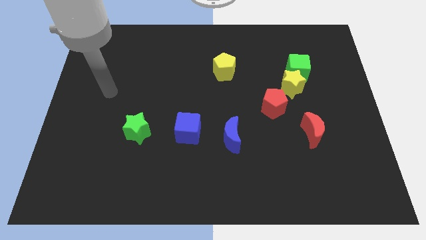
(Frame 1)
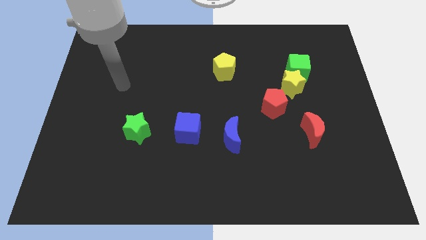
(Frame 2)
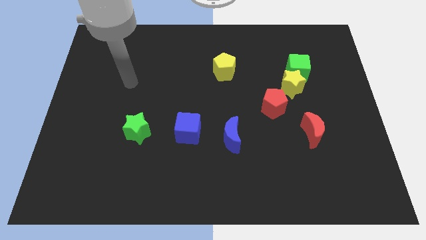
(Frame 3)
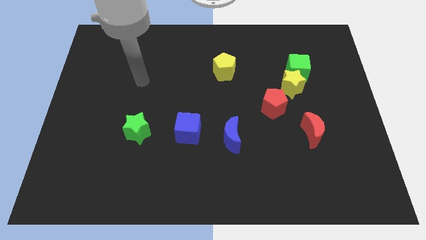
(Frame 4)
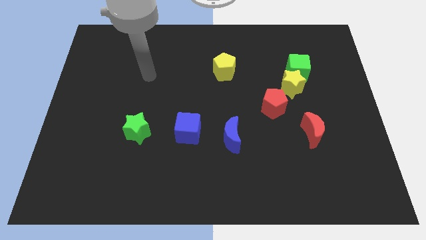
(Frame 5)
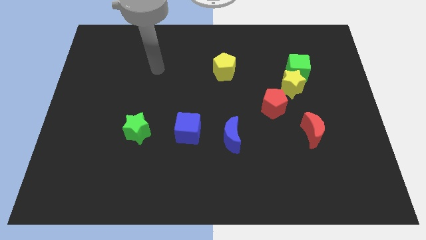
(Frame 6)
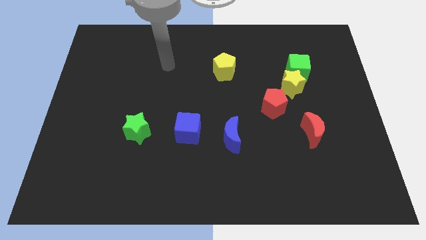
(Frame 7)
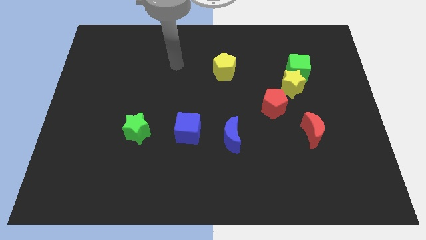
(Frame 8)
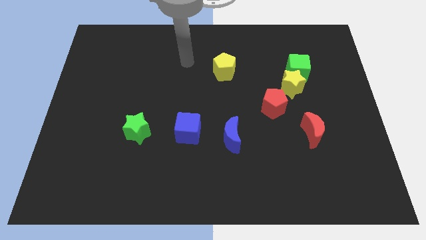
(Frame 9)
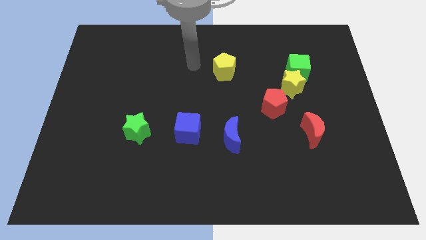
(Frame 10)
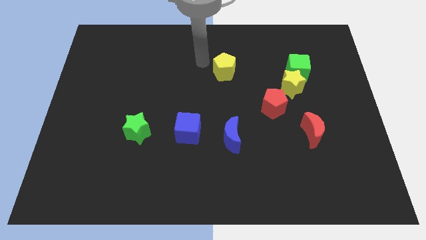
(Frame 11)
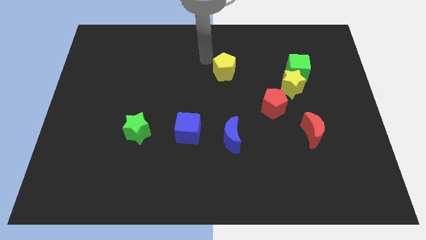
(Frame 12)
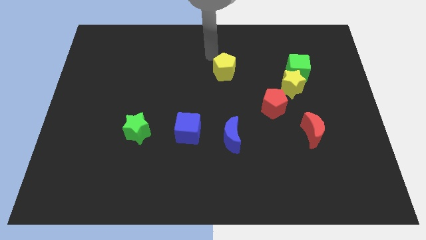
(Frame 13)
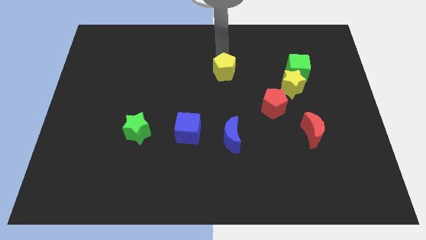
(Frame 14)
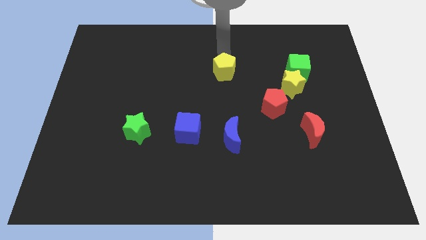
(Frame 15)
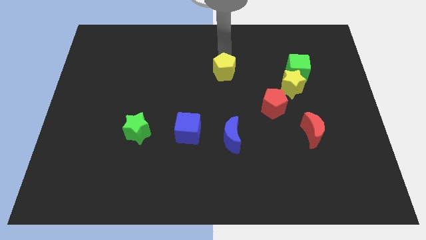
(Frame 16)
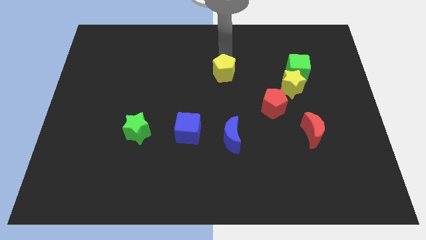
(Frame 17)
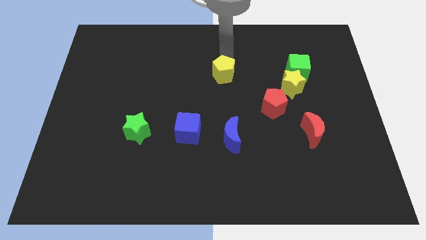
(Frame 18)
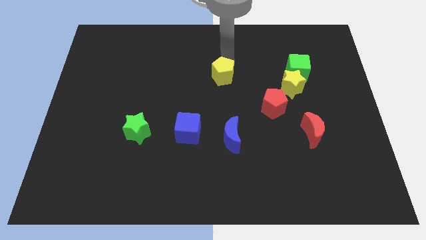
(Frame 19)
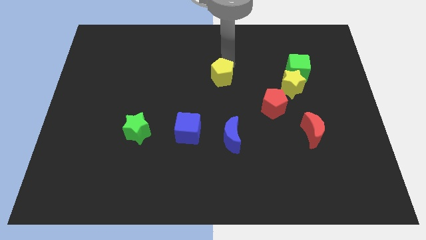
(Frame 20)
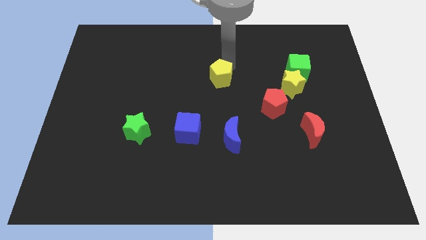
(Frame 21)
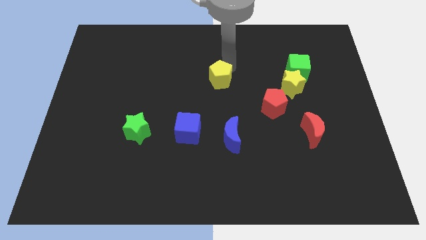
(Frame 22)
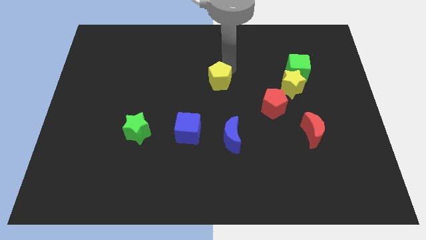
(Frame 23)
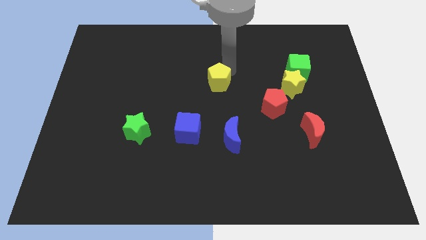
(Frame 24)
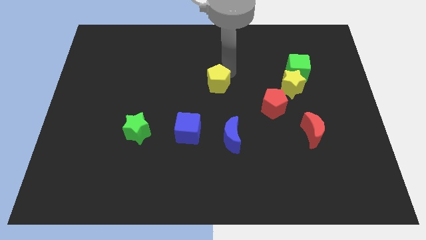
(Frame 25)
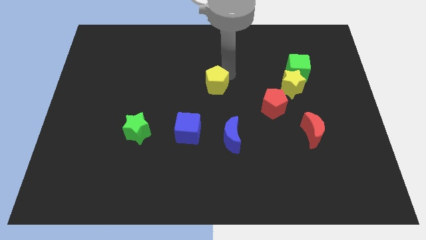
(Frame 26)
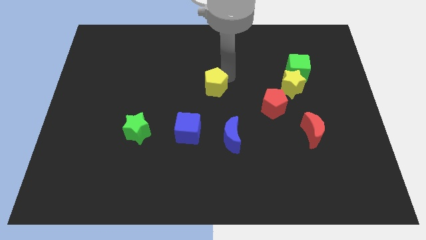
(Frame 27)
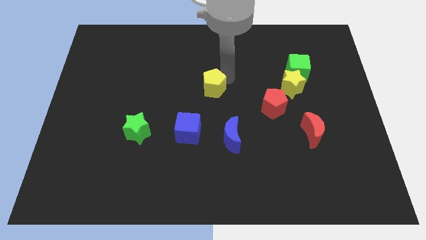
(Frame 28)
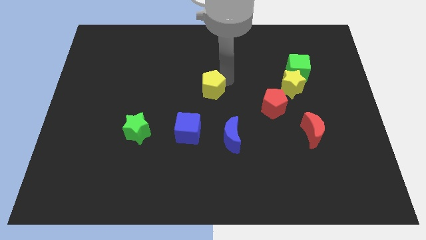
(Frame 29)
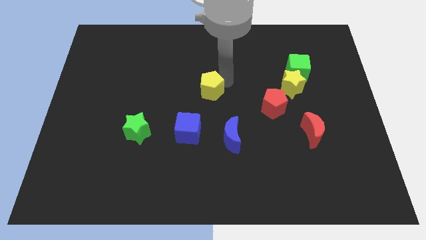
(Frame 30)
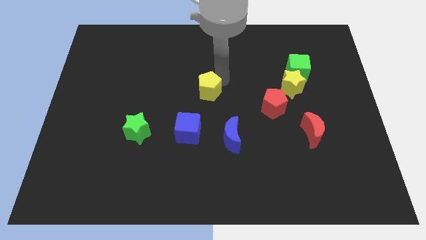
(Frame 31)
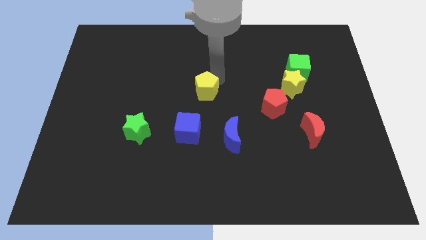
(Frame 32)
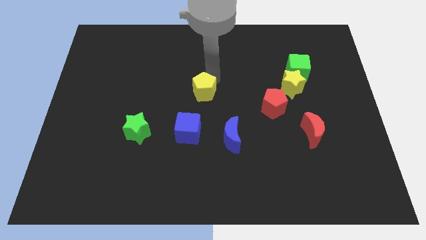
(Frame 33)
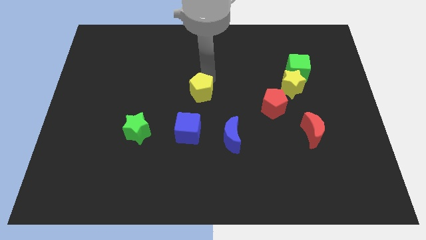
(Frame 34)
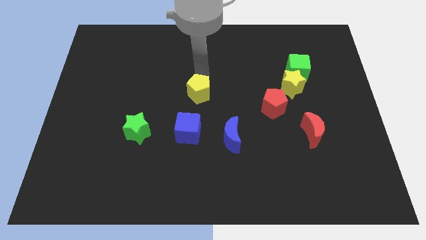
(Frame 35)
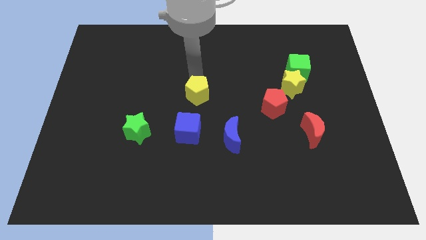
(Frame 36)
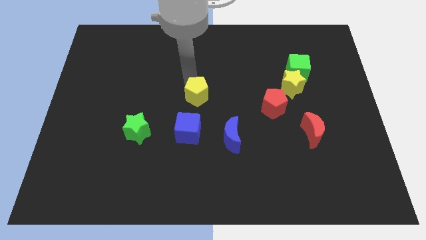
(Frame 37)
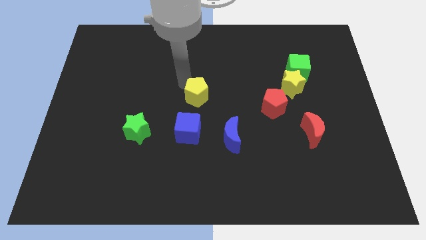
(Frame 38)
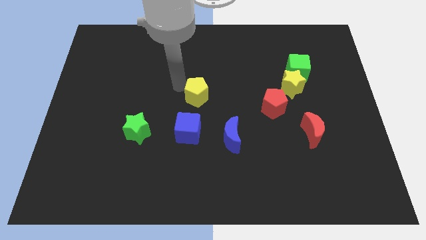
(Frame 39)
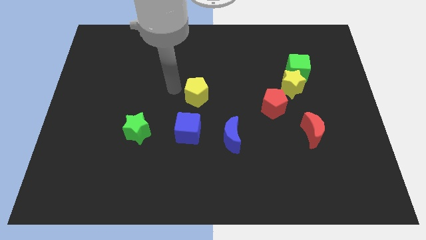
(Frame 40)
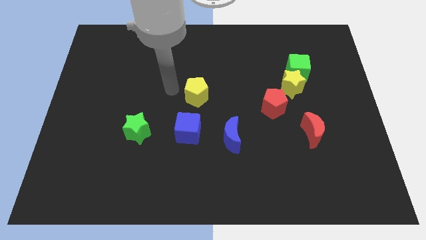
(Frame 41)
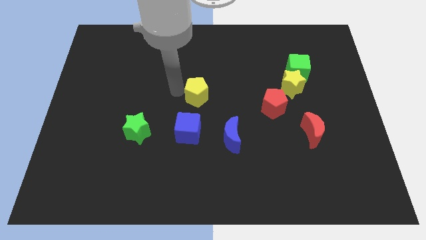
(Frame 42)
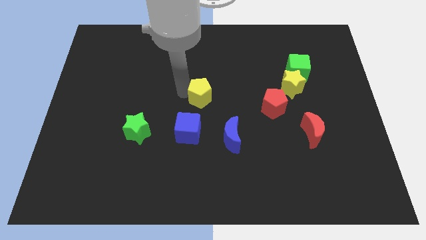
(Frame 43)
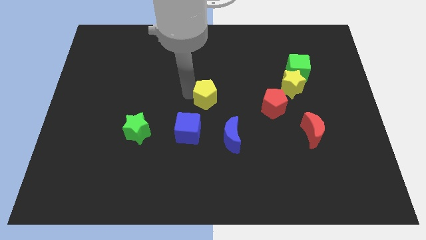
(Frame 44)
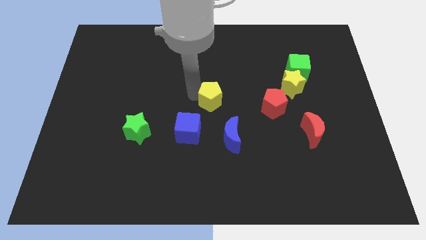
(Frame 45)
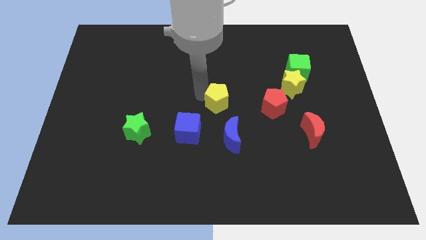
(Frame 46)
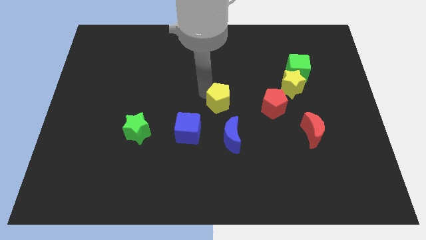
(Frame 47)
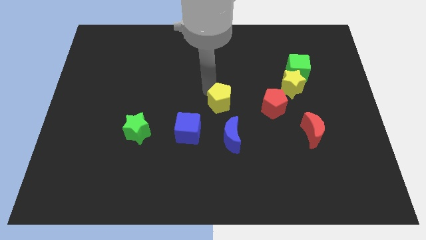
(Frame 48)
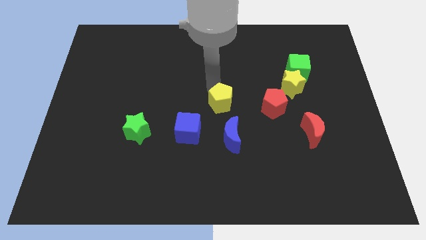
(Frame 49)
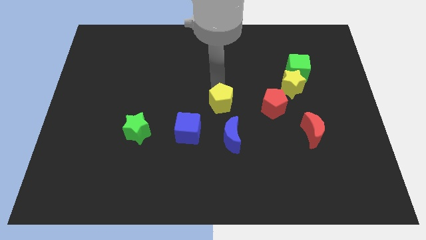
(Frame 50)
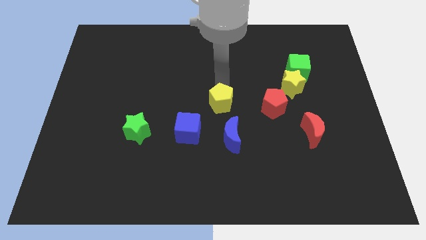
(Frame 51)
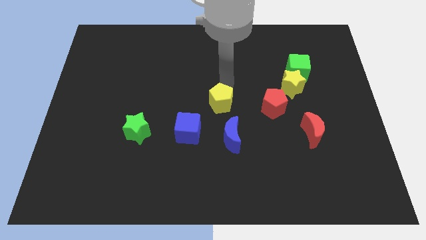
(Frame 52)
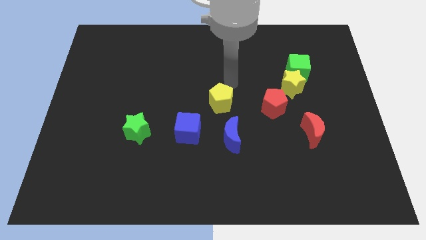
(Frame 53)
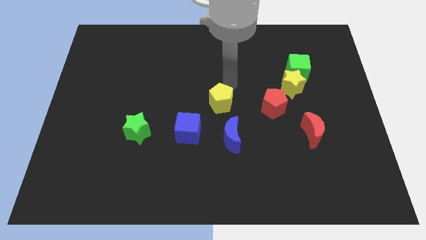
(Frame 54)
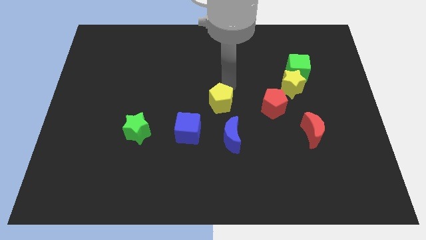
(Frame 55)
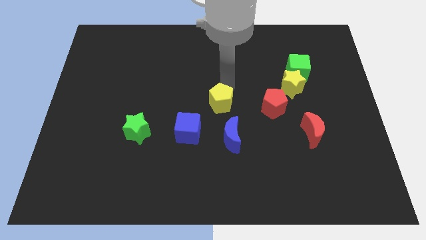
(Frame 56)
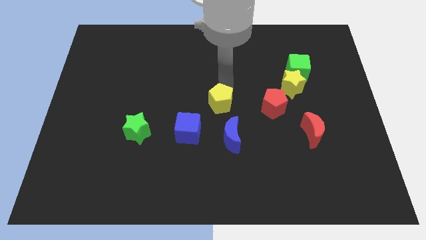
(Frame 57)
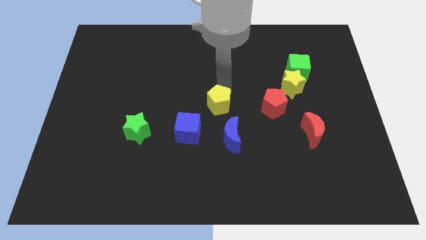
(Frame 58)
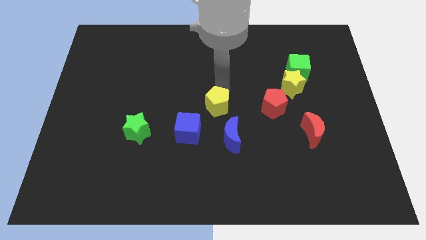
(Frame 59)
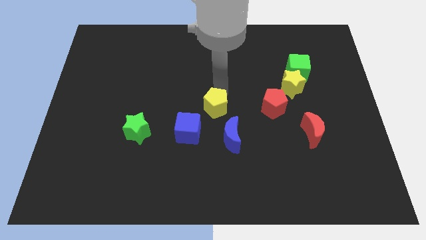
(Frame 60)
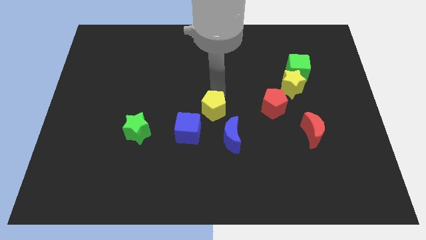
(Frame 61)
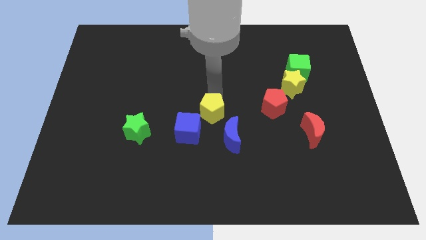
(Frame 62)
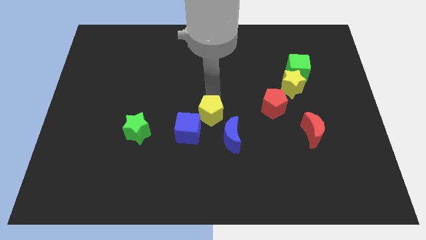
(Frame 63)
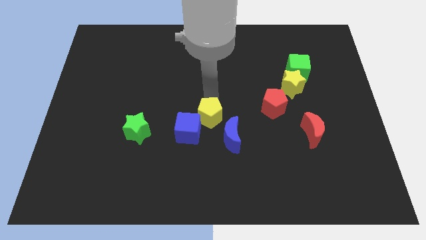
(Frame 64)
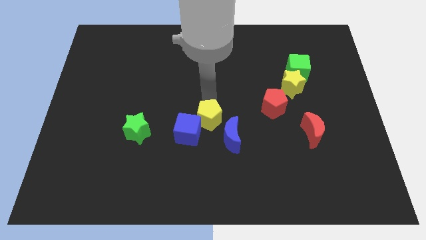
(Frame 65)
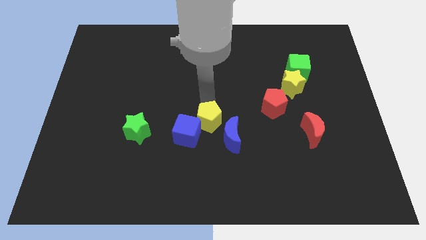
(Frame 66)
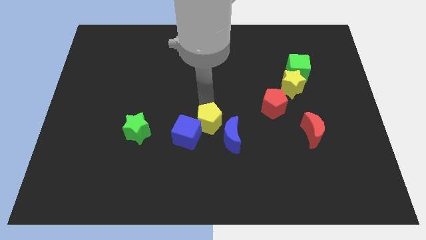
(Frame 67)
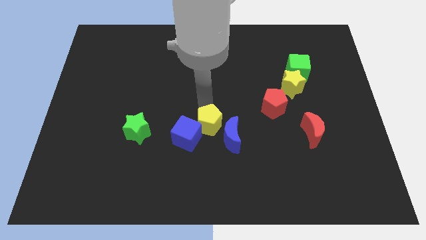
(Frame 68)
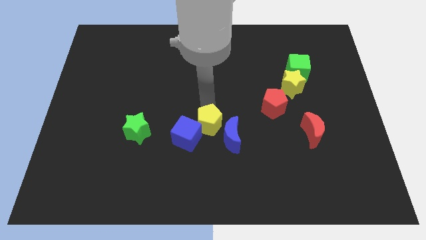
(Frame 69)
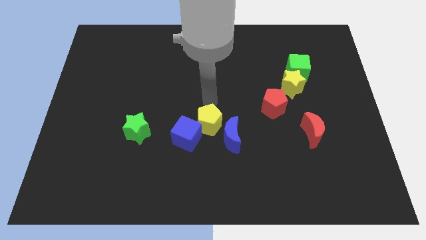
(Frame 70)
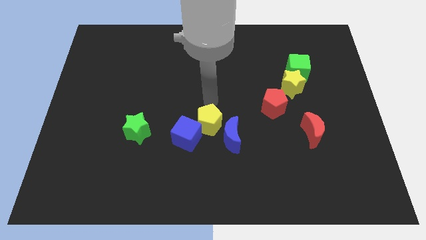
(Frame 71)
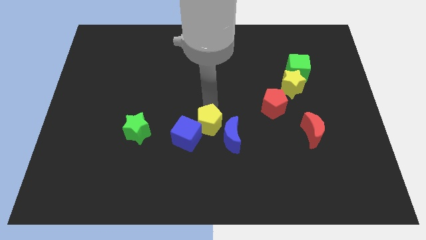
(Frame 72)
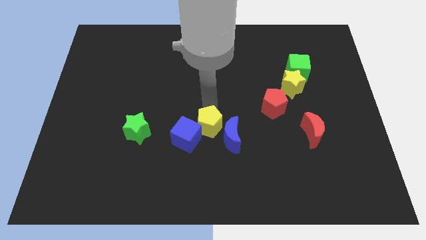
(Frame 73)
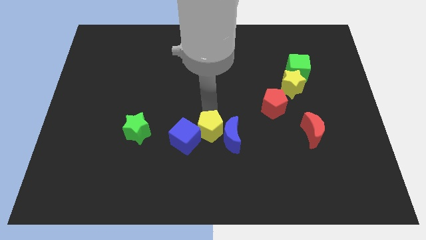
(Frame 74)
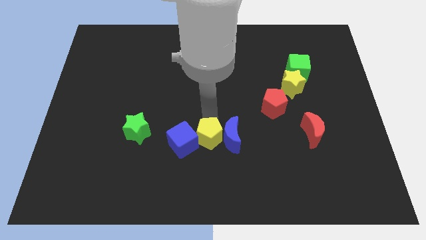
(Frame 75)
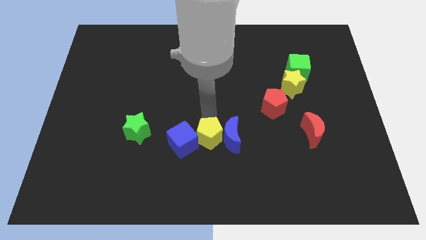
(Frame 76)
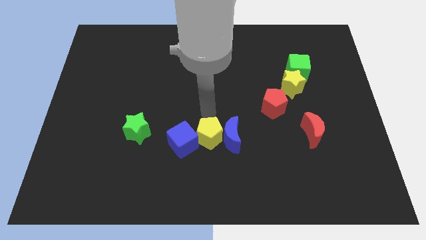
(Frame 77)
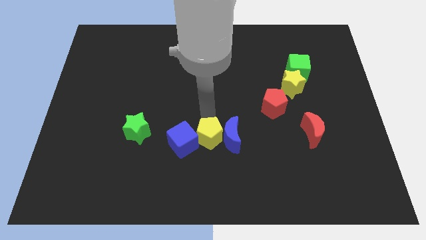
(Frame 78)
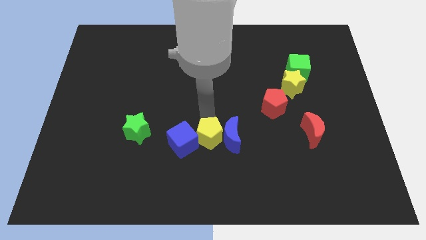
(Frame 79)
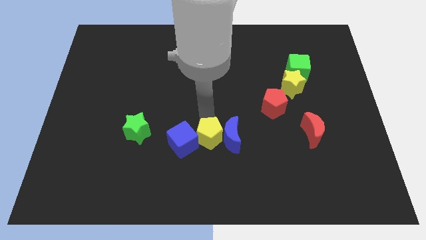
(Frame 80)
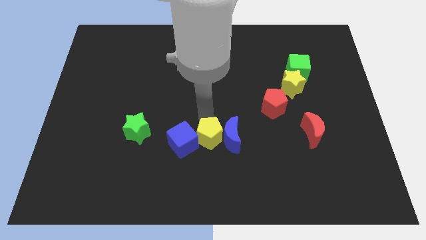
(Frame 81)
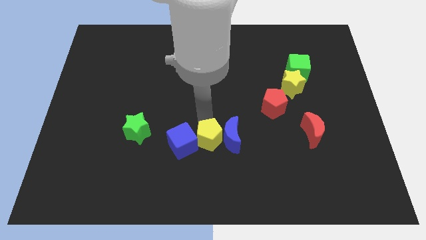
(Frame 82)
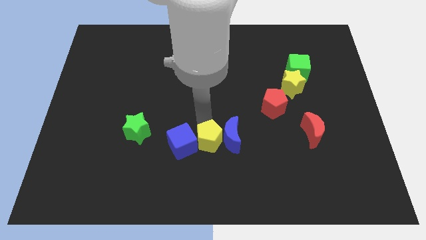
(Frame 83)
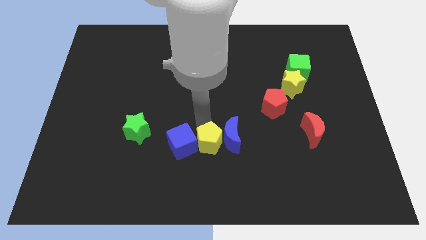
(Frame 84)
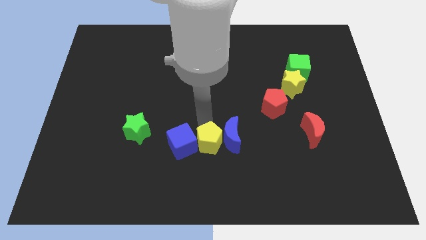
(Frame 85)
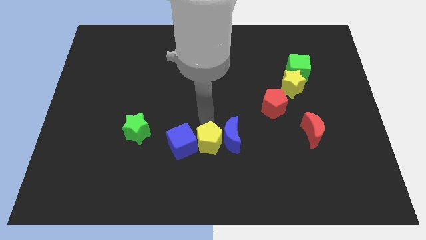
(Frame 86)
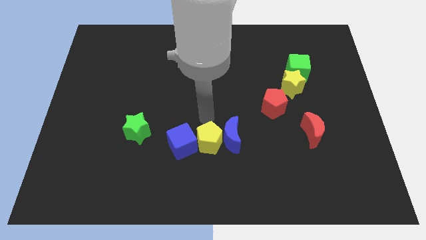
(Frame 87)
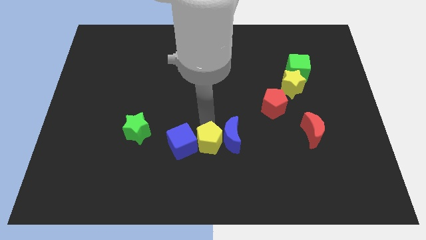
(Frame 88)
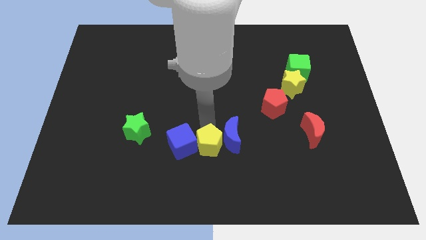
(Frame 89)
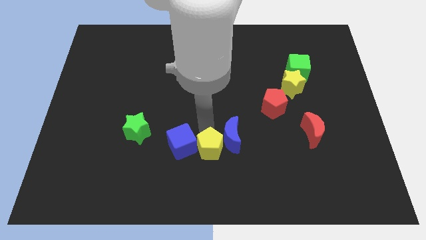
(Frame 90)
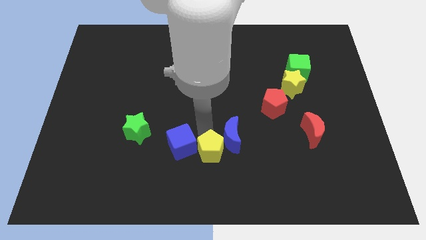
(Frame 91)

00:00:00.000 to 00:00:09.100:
slide the yellow pentagon to the bottom of the blue moon
